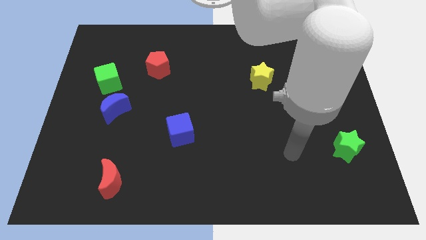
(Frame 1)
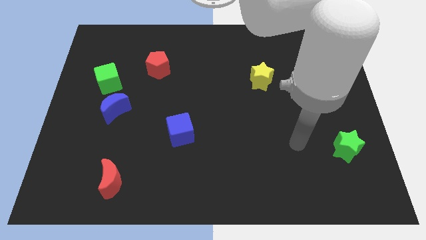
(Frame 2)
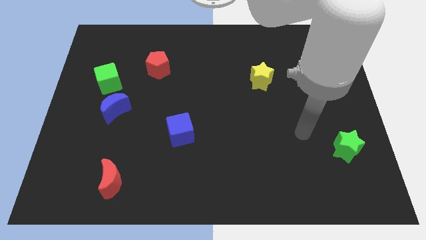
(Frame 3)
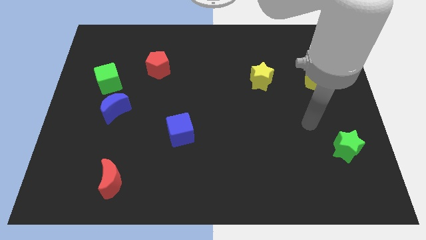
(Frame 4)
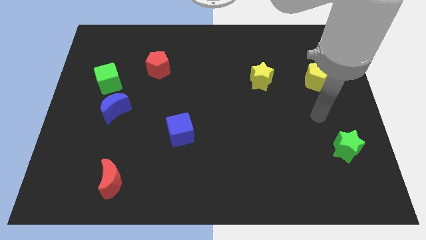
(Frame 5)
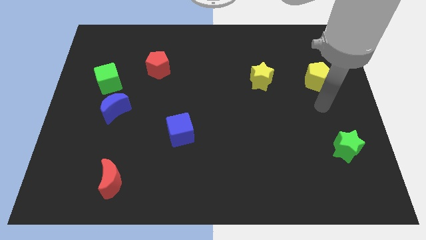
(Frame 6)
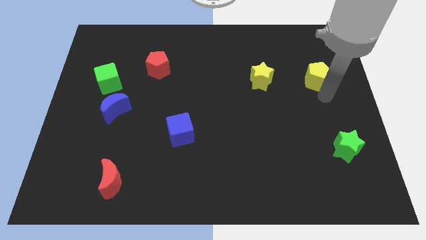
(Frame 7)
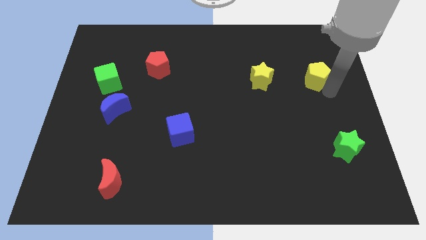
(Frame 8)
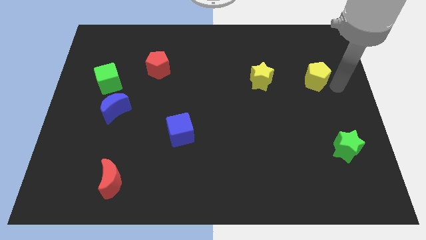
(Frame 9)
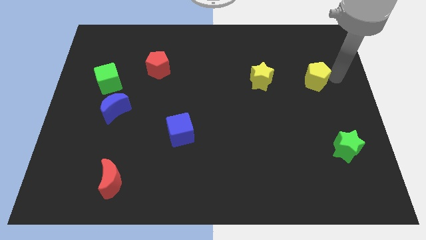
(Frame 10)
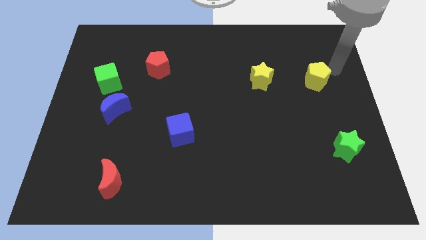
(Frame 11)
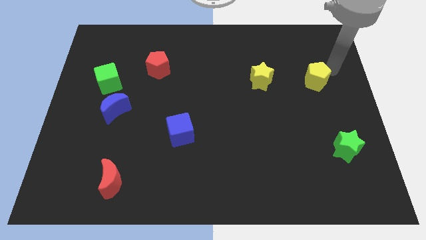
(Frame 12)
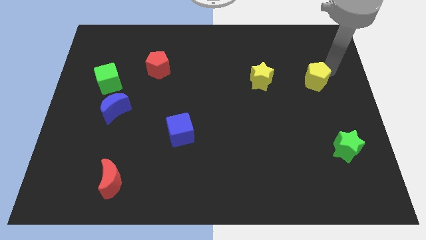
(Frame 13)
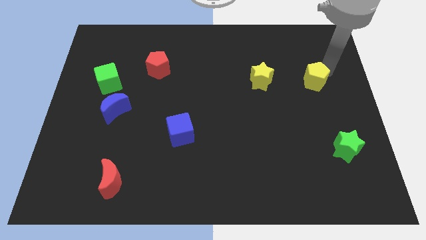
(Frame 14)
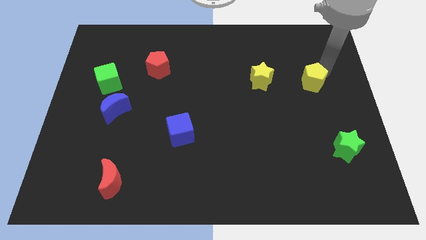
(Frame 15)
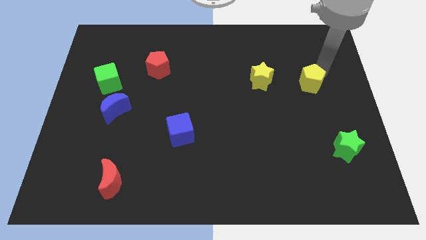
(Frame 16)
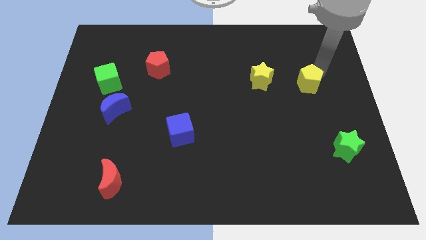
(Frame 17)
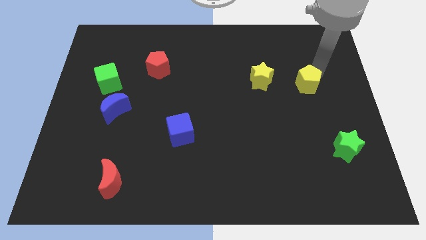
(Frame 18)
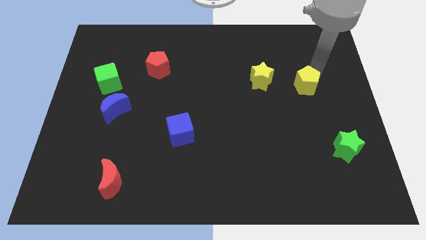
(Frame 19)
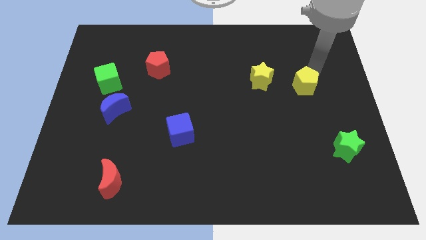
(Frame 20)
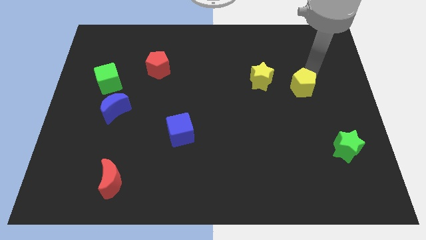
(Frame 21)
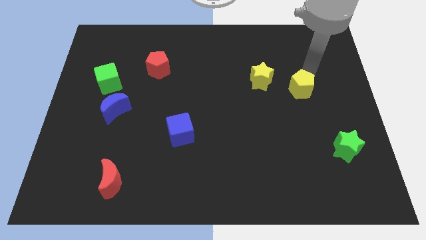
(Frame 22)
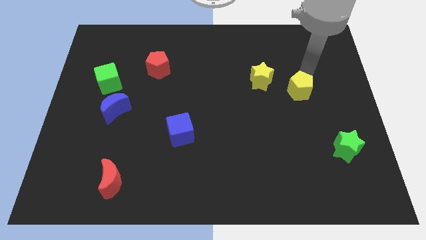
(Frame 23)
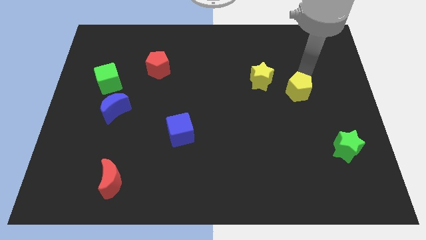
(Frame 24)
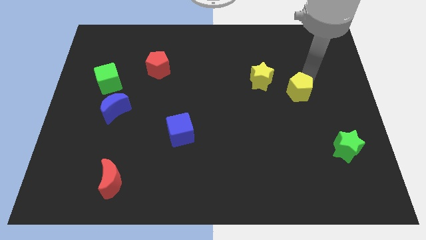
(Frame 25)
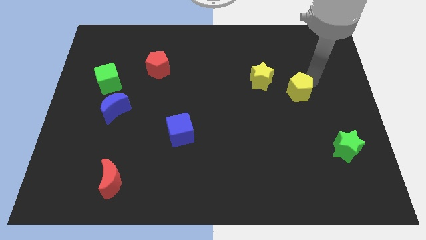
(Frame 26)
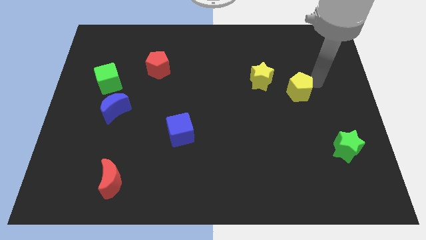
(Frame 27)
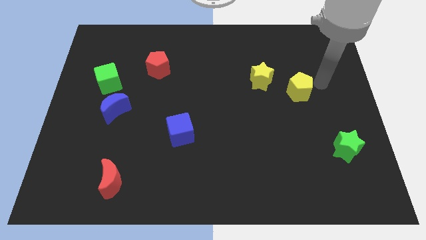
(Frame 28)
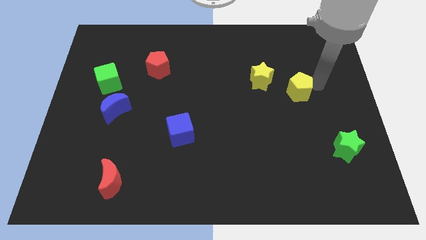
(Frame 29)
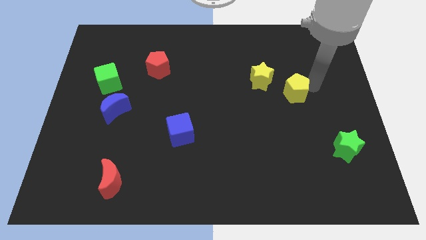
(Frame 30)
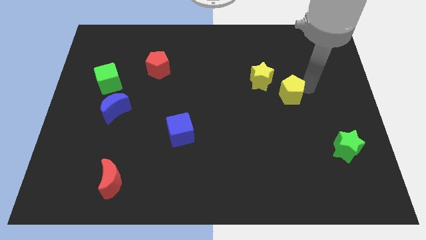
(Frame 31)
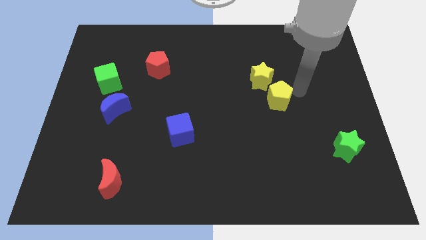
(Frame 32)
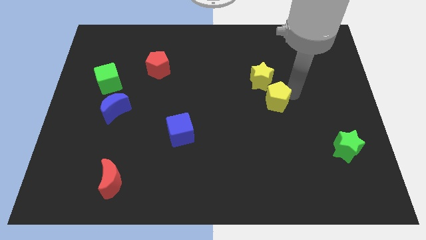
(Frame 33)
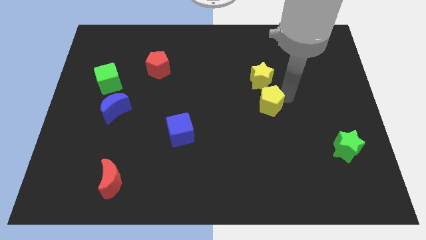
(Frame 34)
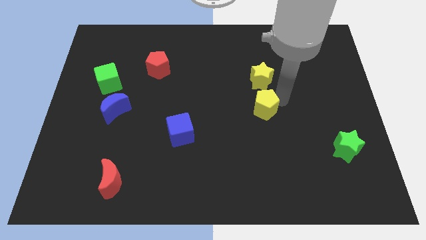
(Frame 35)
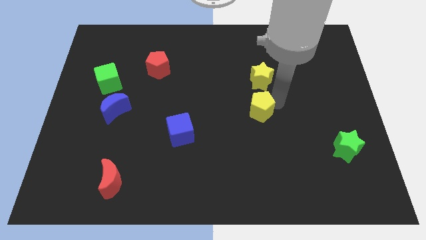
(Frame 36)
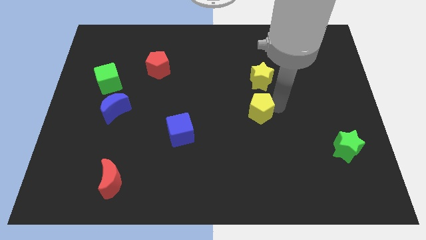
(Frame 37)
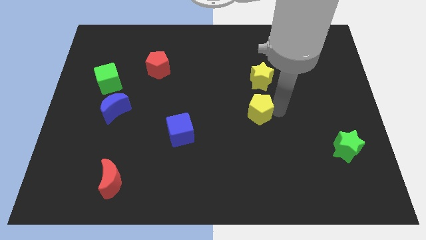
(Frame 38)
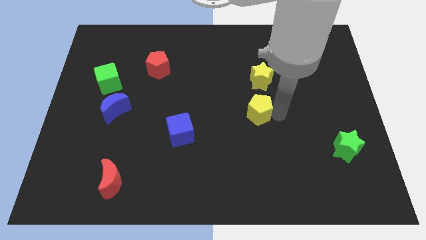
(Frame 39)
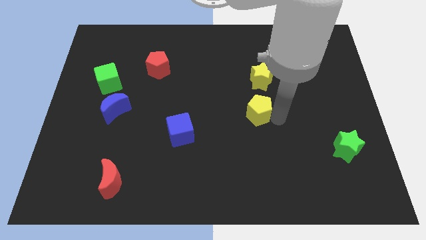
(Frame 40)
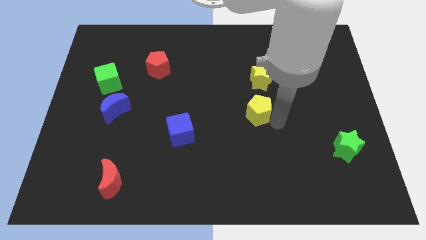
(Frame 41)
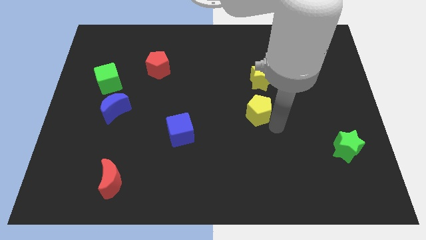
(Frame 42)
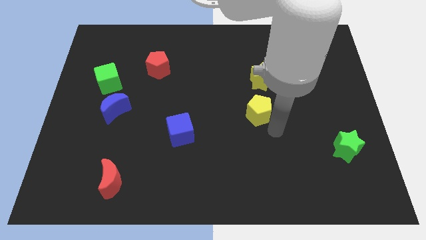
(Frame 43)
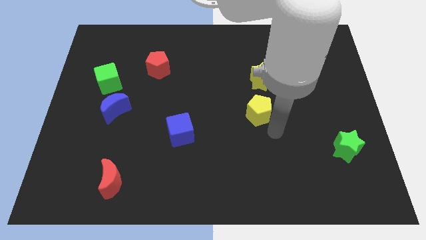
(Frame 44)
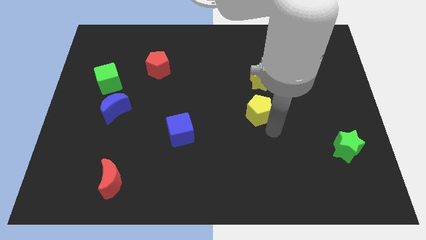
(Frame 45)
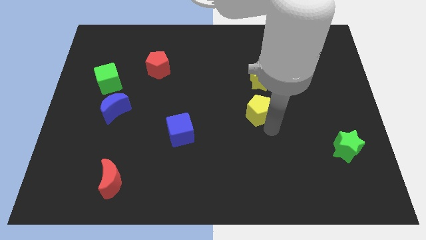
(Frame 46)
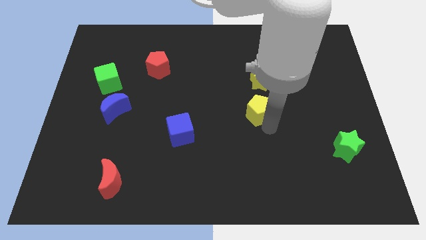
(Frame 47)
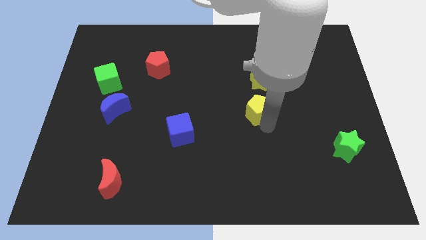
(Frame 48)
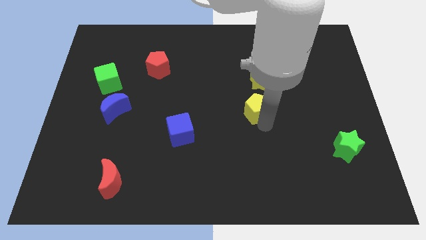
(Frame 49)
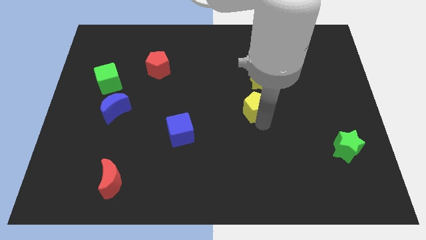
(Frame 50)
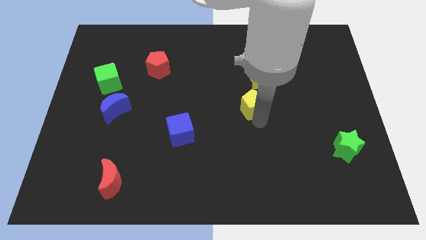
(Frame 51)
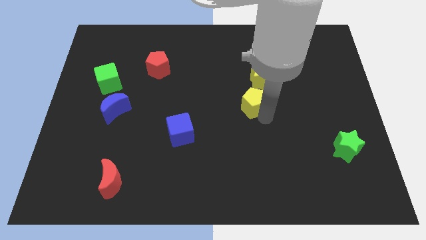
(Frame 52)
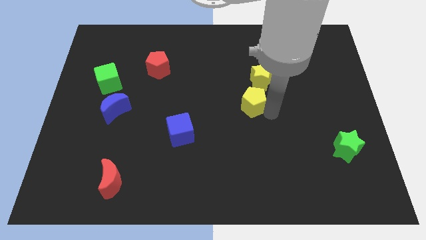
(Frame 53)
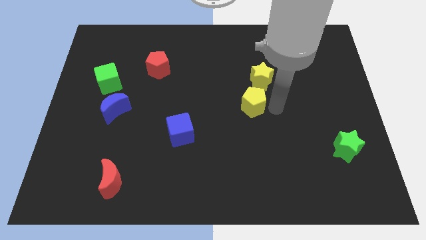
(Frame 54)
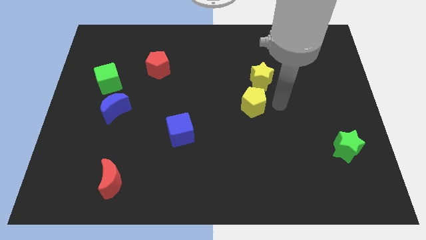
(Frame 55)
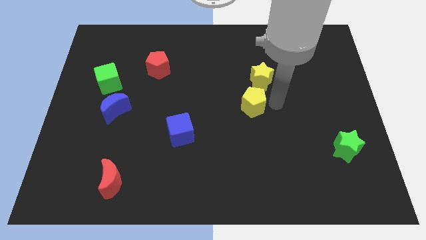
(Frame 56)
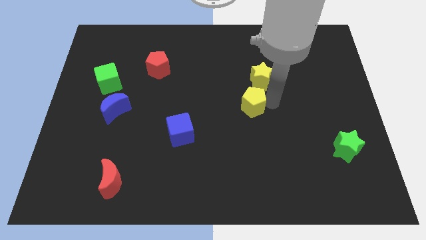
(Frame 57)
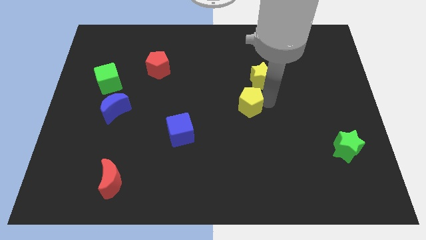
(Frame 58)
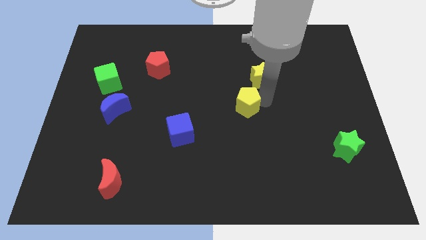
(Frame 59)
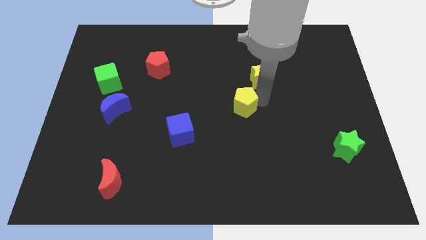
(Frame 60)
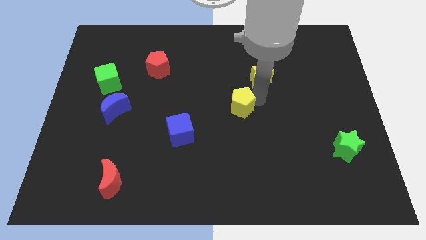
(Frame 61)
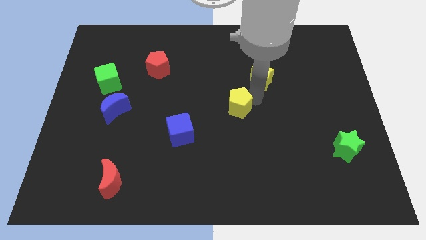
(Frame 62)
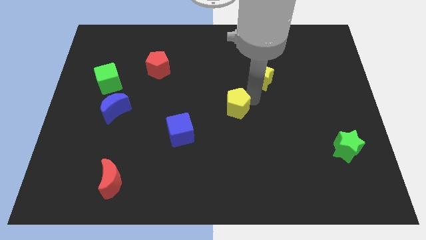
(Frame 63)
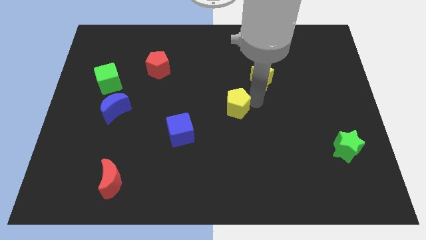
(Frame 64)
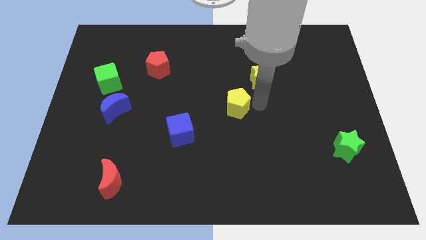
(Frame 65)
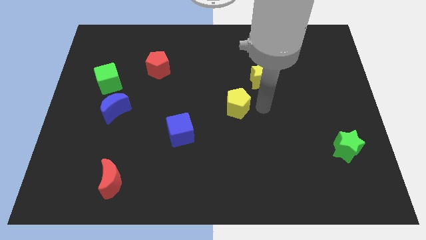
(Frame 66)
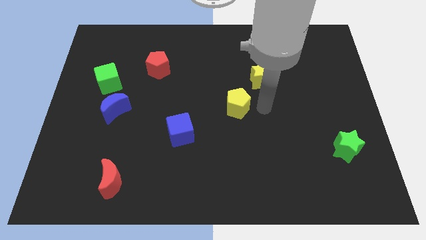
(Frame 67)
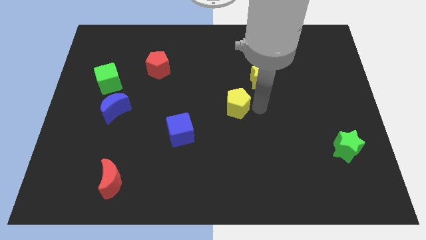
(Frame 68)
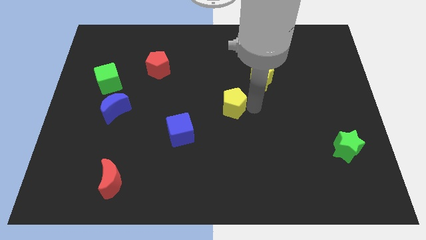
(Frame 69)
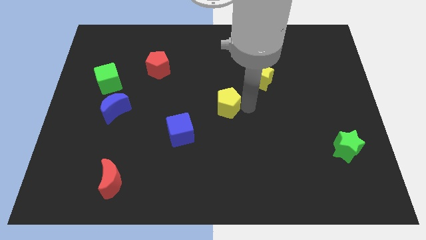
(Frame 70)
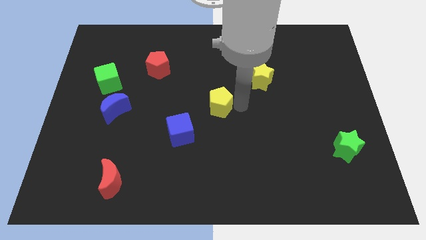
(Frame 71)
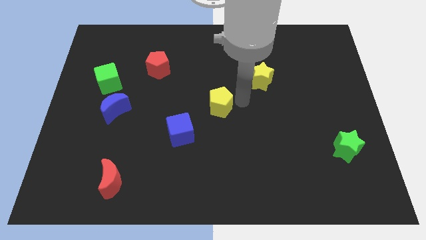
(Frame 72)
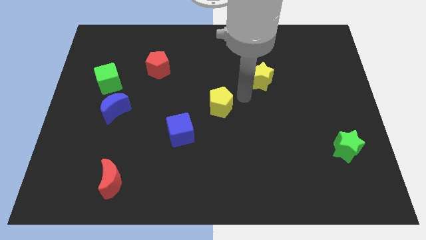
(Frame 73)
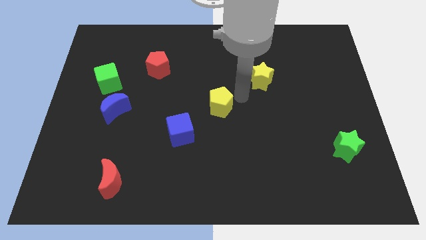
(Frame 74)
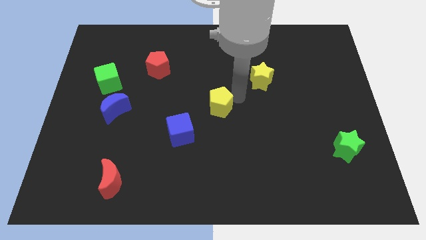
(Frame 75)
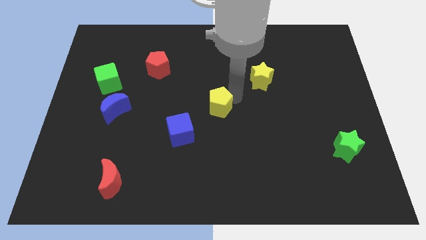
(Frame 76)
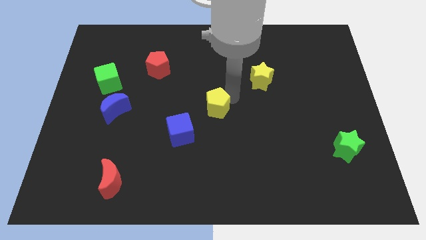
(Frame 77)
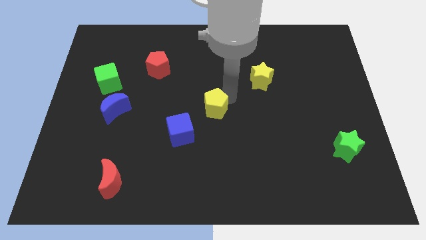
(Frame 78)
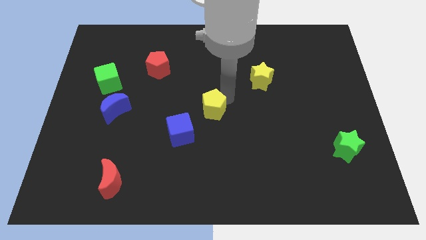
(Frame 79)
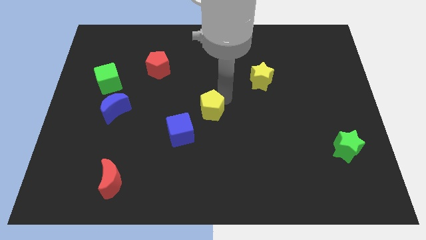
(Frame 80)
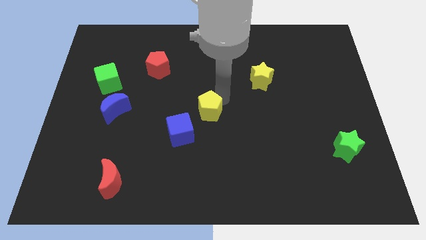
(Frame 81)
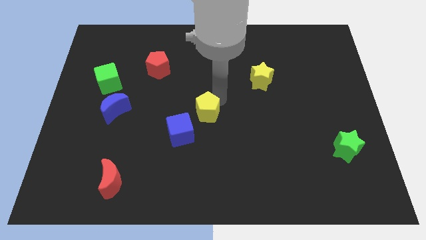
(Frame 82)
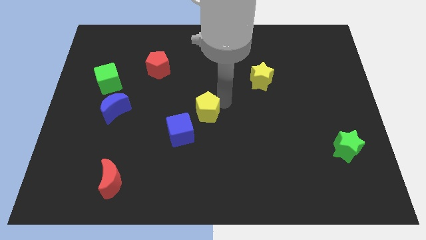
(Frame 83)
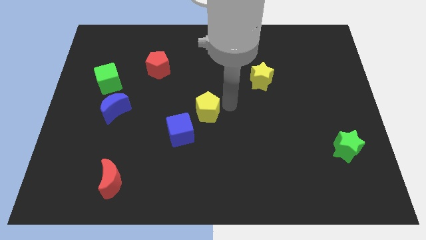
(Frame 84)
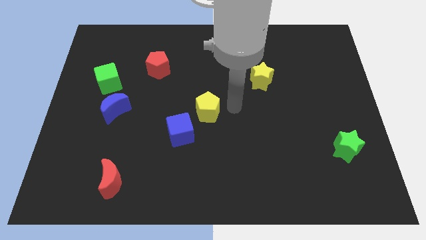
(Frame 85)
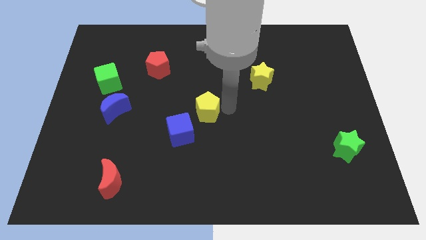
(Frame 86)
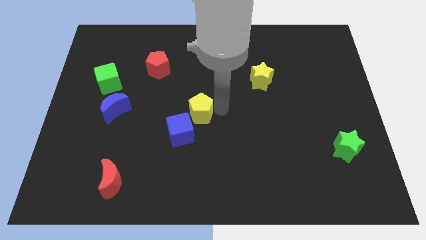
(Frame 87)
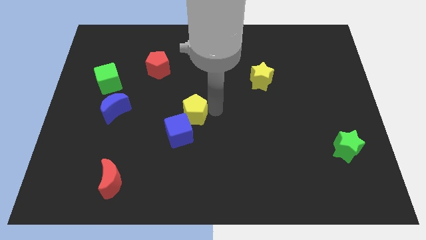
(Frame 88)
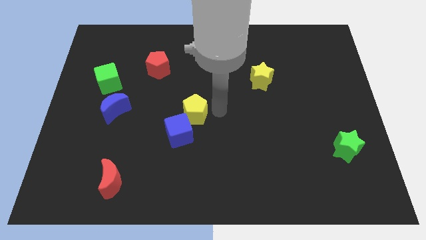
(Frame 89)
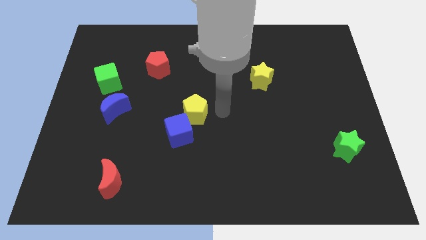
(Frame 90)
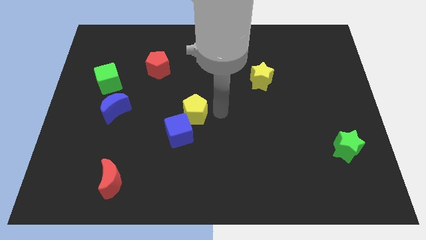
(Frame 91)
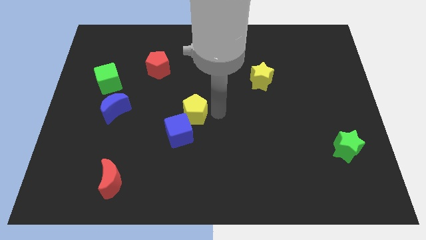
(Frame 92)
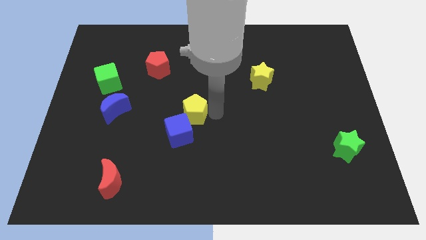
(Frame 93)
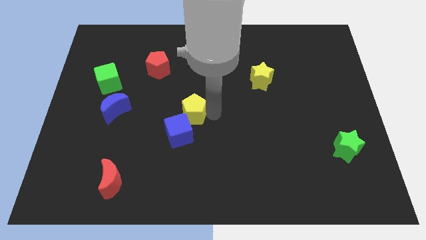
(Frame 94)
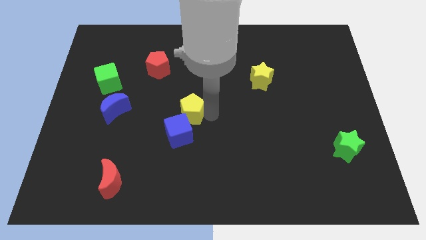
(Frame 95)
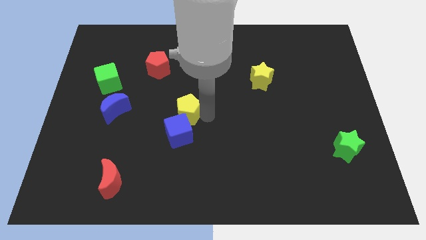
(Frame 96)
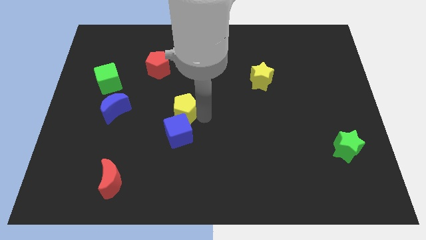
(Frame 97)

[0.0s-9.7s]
put the yellow pentagon diagonally up and to the left of the blue cube
